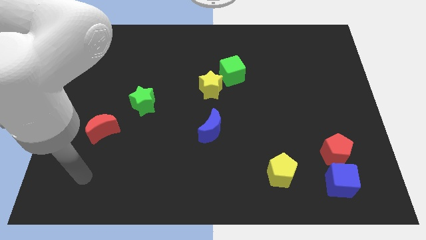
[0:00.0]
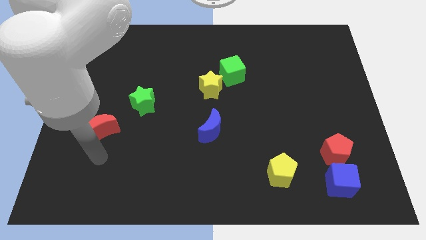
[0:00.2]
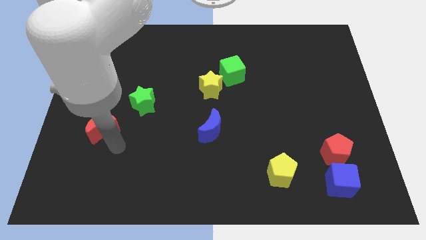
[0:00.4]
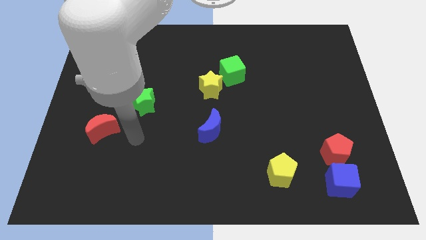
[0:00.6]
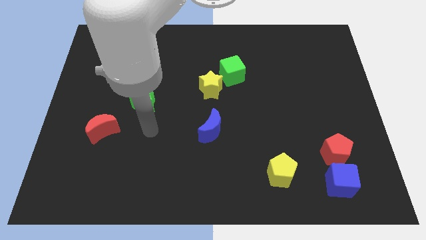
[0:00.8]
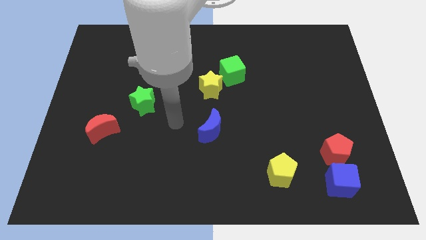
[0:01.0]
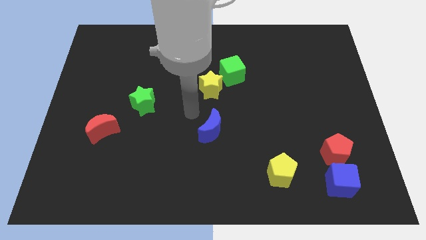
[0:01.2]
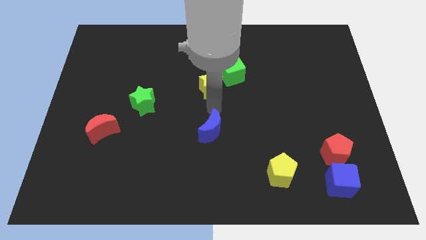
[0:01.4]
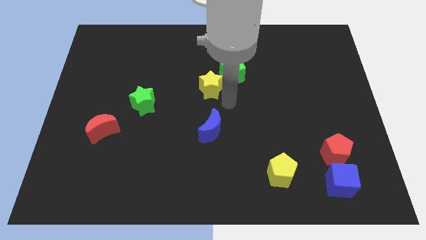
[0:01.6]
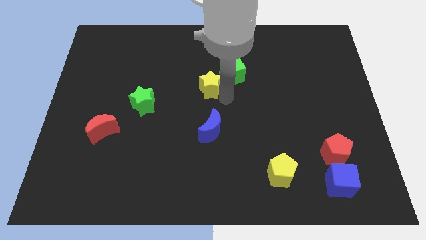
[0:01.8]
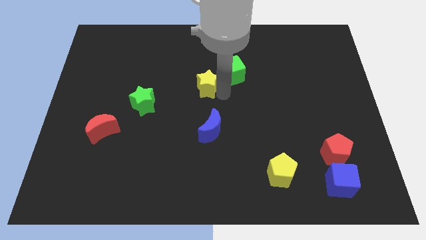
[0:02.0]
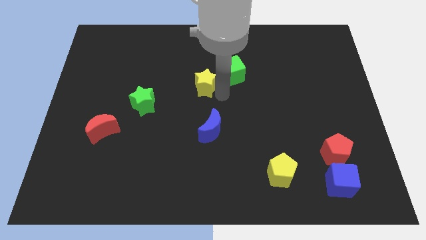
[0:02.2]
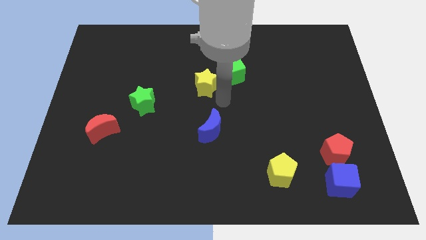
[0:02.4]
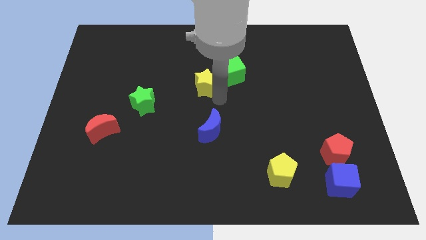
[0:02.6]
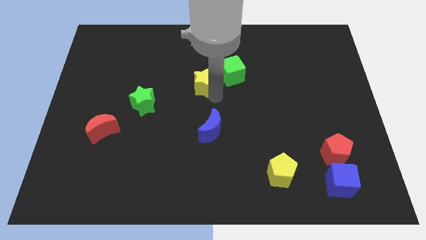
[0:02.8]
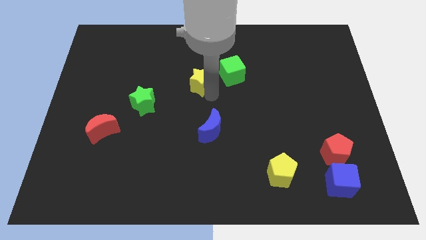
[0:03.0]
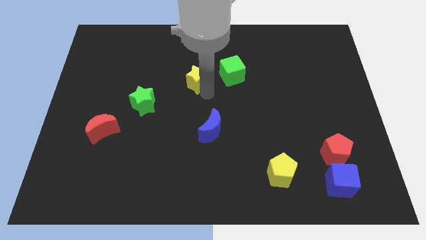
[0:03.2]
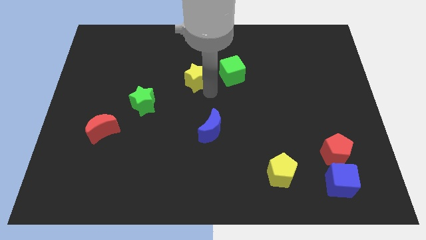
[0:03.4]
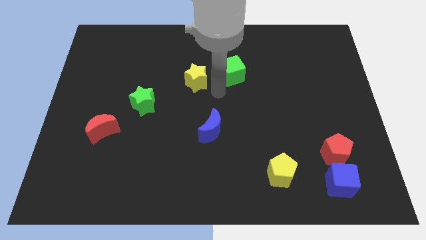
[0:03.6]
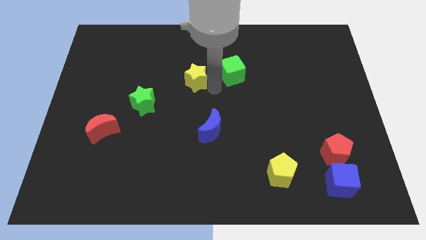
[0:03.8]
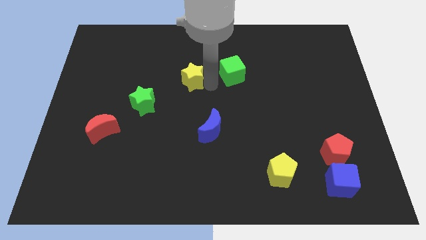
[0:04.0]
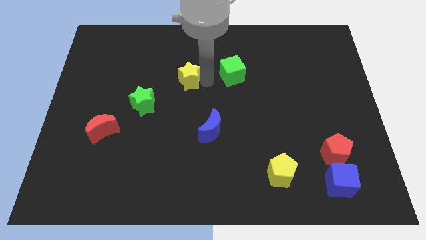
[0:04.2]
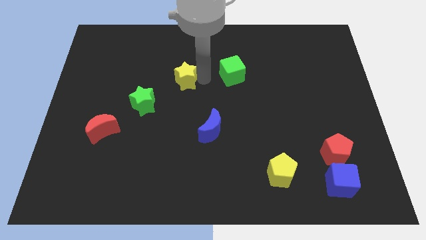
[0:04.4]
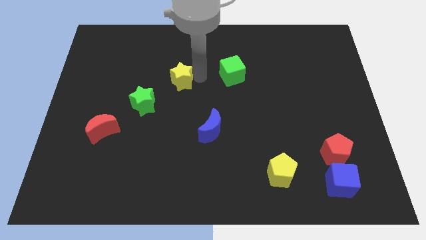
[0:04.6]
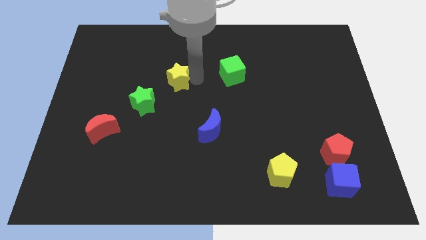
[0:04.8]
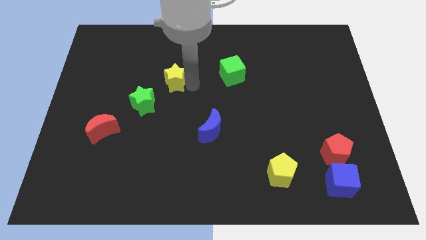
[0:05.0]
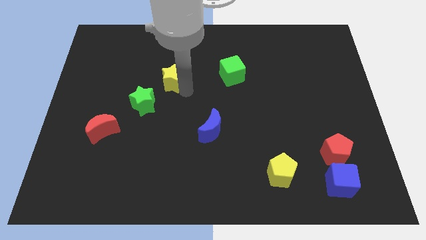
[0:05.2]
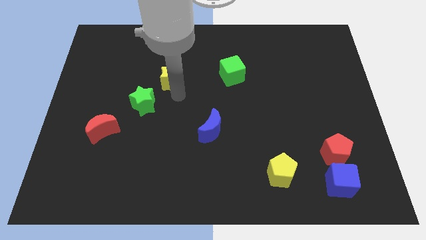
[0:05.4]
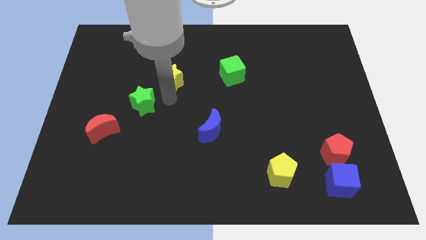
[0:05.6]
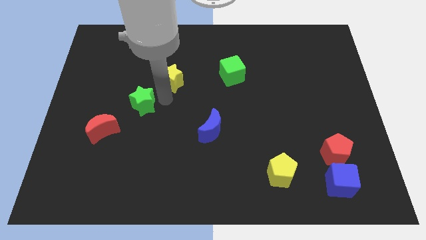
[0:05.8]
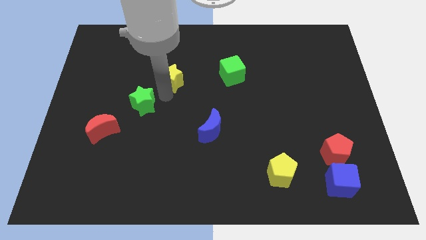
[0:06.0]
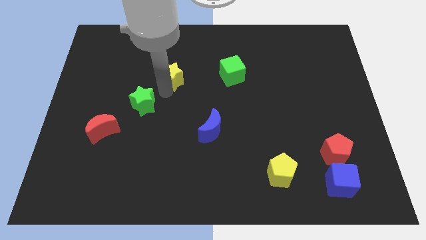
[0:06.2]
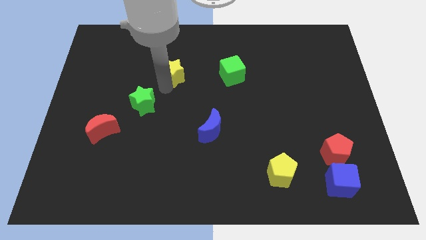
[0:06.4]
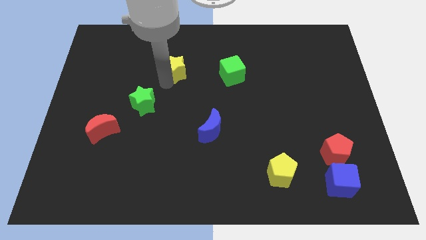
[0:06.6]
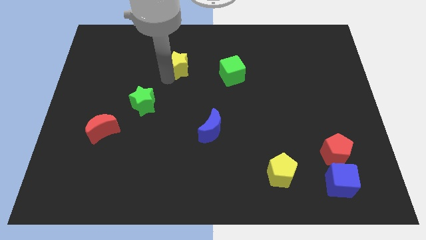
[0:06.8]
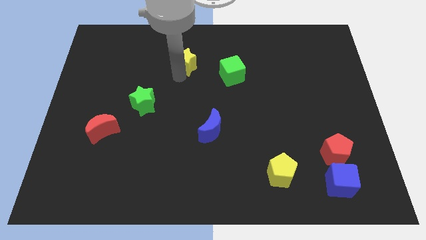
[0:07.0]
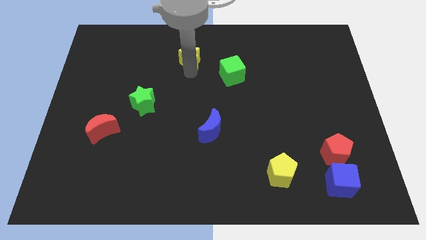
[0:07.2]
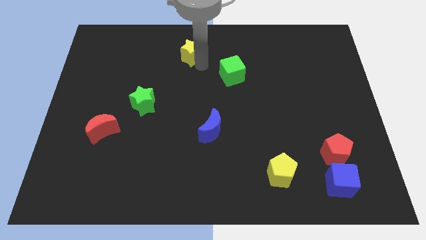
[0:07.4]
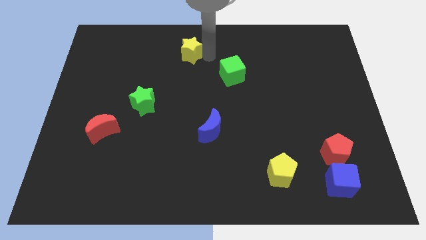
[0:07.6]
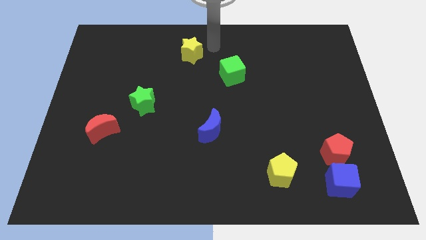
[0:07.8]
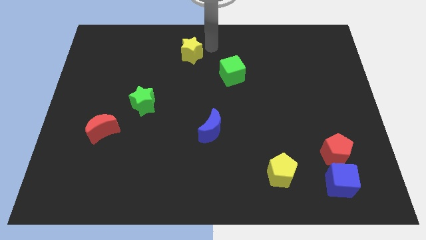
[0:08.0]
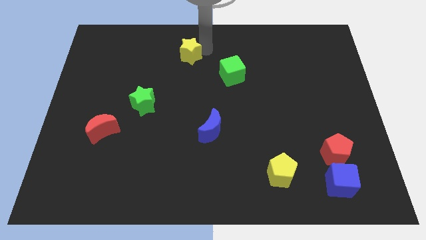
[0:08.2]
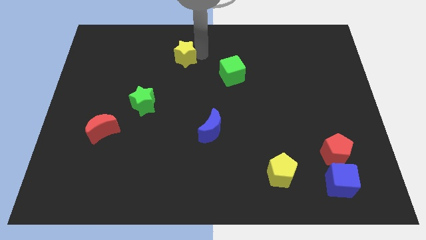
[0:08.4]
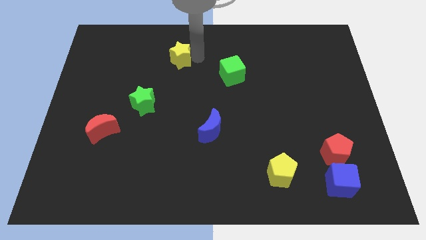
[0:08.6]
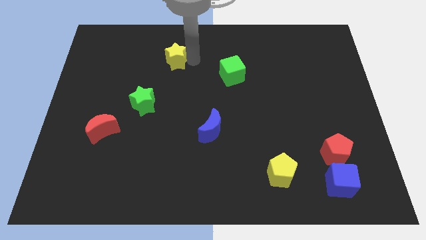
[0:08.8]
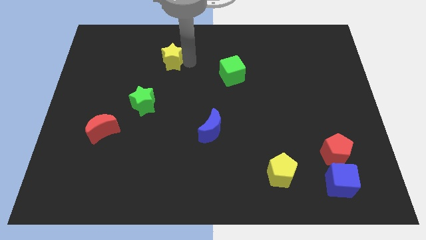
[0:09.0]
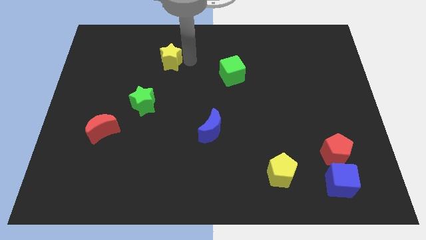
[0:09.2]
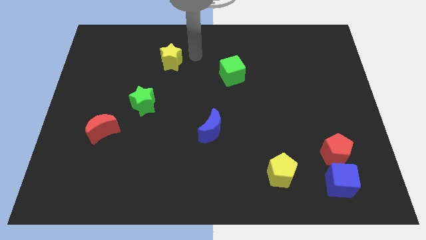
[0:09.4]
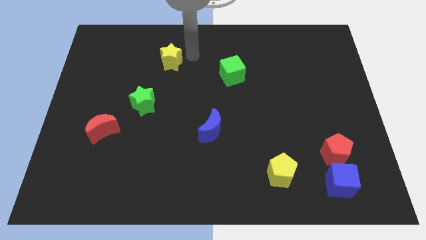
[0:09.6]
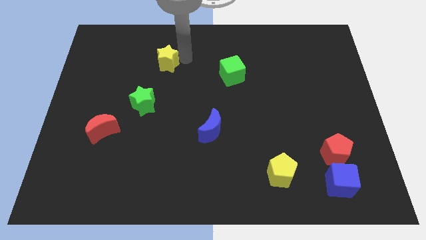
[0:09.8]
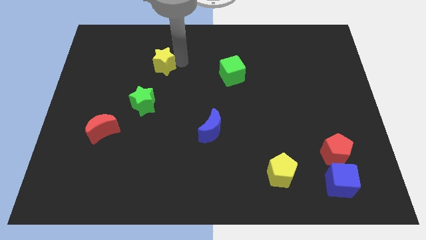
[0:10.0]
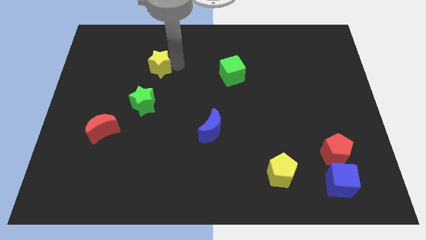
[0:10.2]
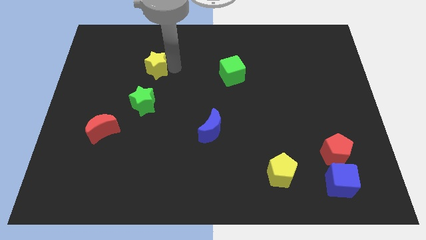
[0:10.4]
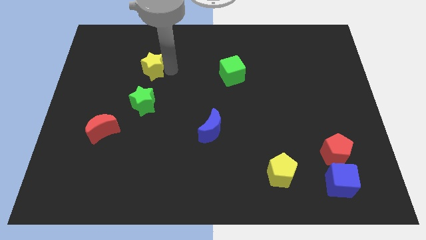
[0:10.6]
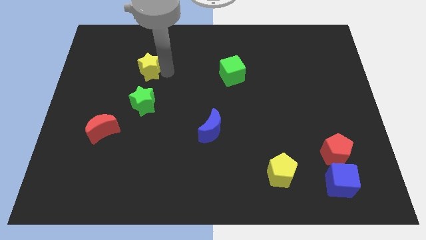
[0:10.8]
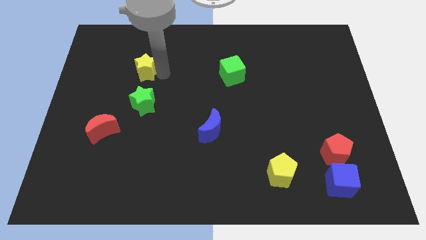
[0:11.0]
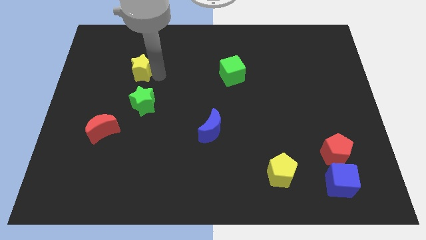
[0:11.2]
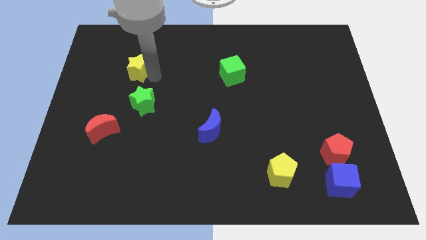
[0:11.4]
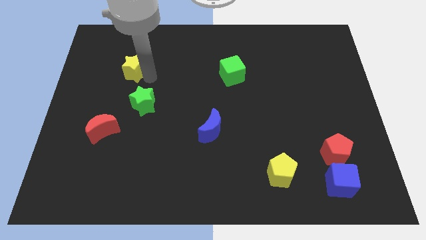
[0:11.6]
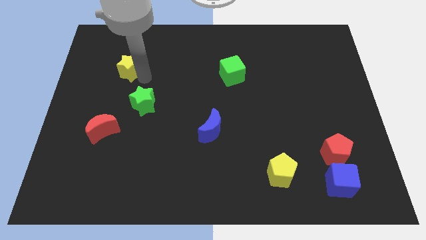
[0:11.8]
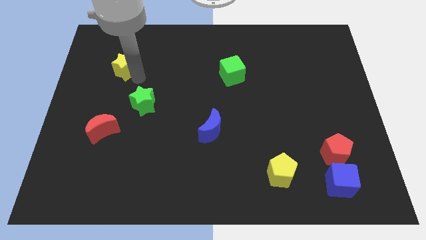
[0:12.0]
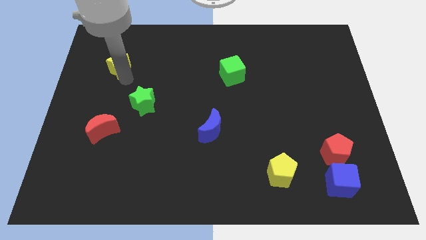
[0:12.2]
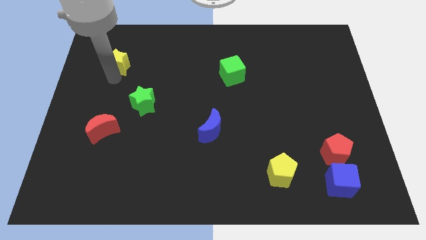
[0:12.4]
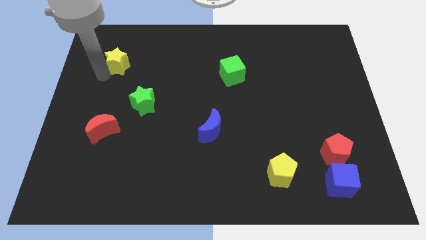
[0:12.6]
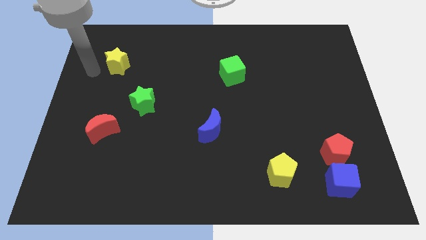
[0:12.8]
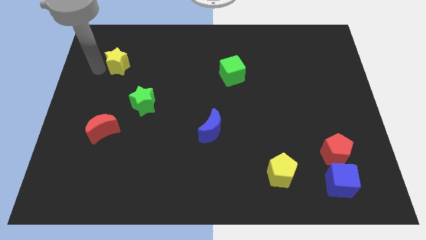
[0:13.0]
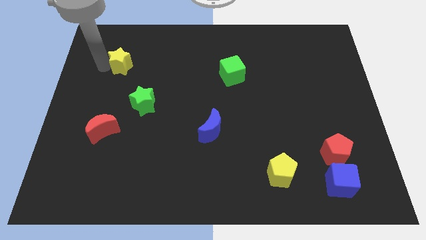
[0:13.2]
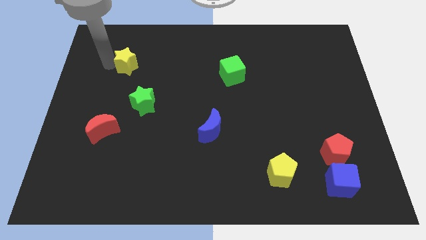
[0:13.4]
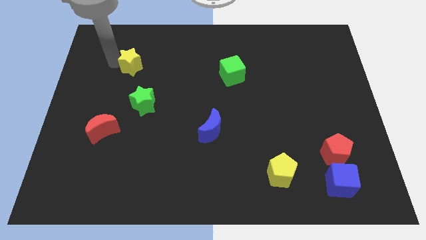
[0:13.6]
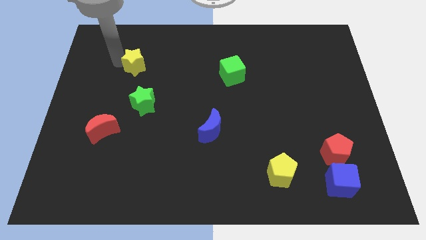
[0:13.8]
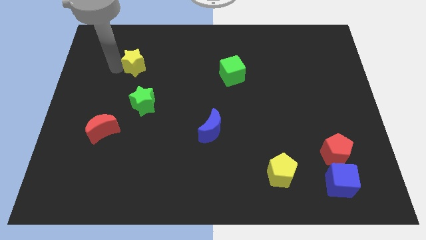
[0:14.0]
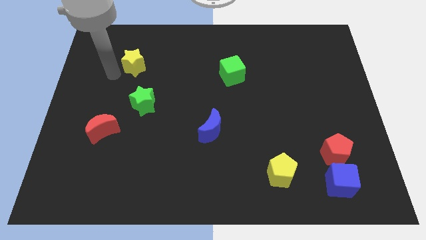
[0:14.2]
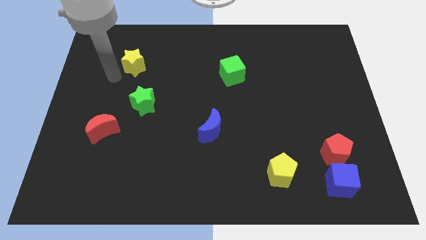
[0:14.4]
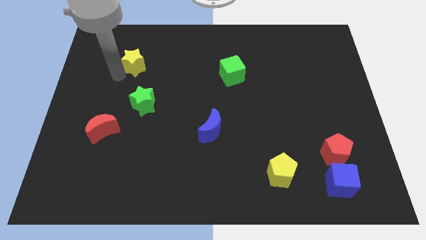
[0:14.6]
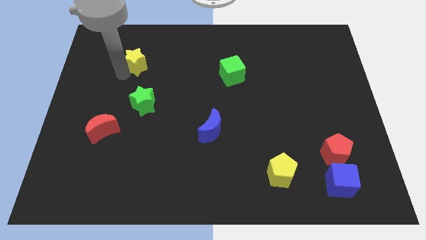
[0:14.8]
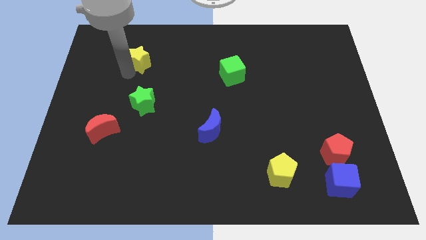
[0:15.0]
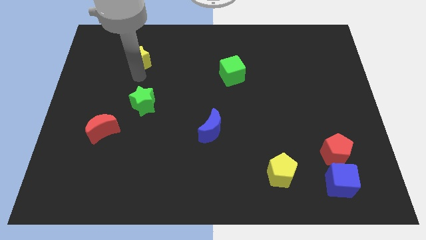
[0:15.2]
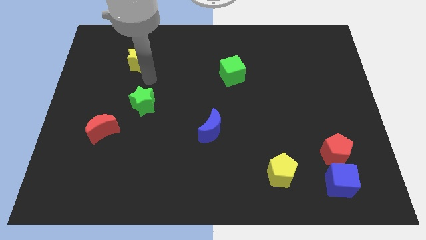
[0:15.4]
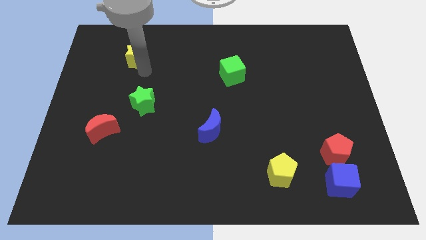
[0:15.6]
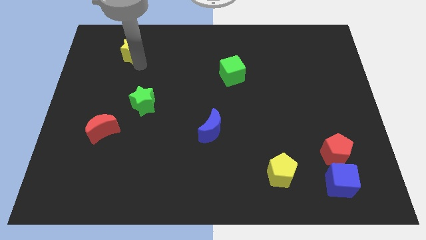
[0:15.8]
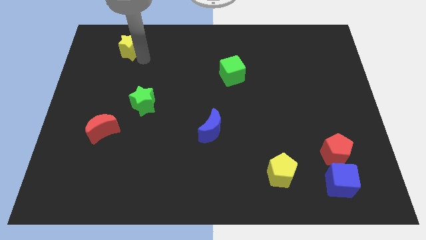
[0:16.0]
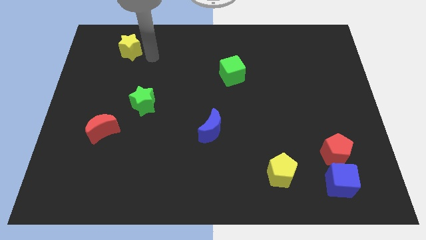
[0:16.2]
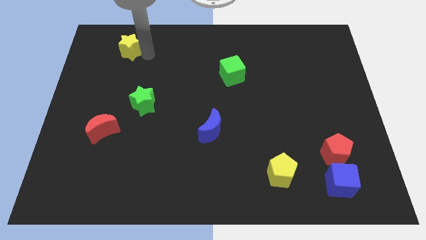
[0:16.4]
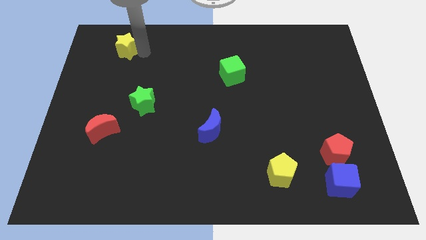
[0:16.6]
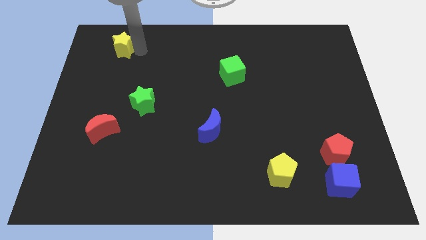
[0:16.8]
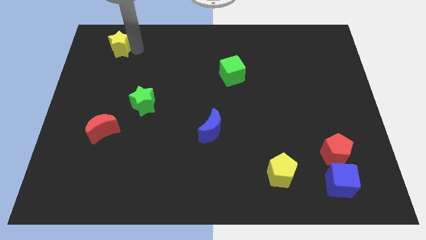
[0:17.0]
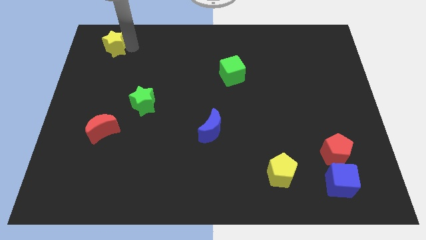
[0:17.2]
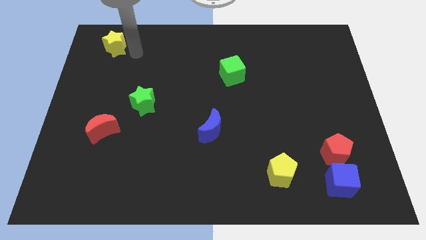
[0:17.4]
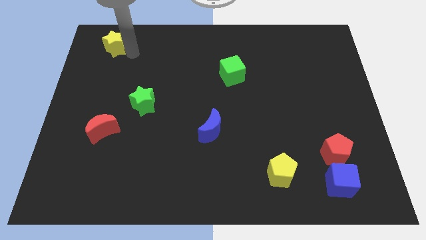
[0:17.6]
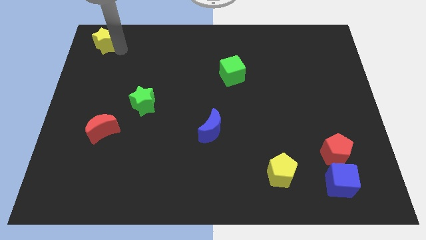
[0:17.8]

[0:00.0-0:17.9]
slide the yellow star to the top left of the board
